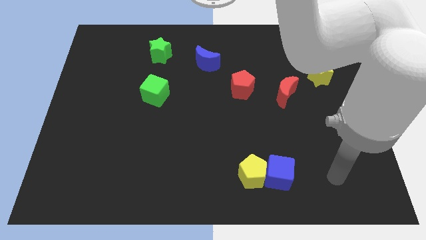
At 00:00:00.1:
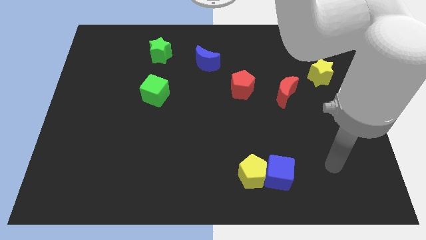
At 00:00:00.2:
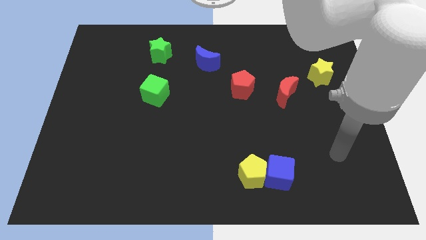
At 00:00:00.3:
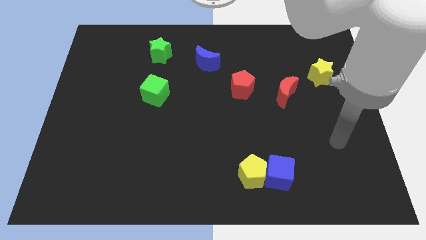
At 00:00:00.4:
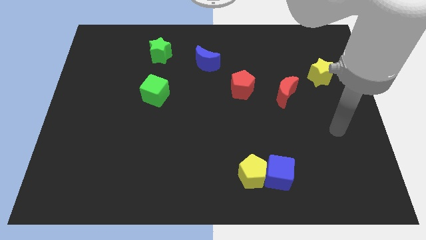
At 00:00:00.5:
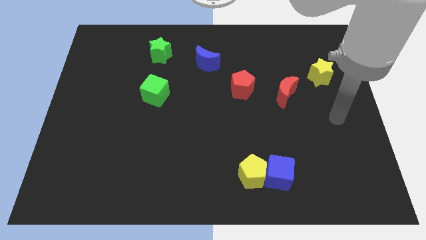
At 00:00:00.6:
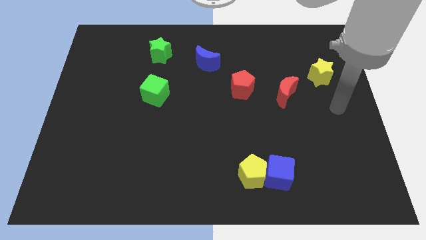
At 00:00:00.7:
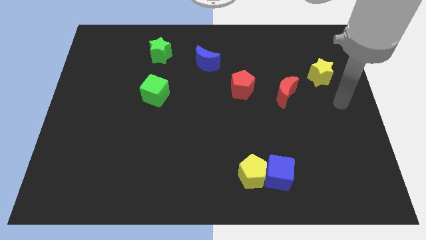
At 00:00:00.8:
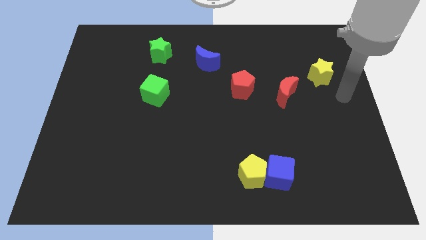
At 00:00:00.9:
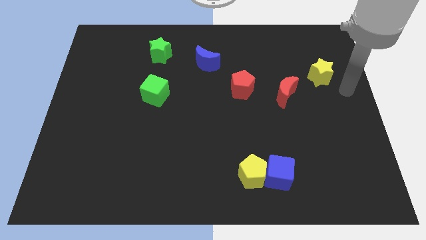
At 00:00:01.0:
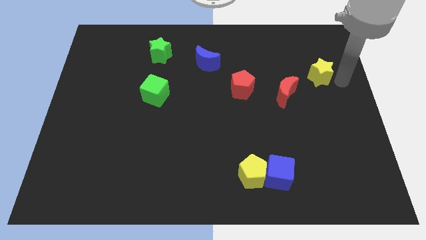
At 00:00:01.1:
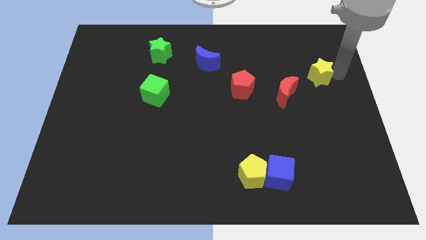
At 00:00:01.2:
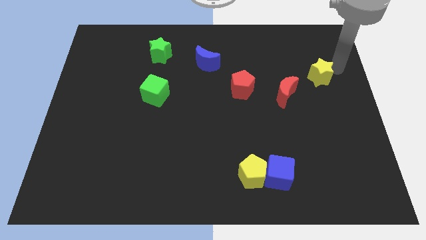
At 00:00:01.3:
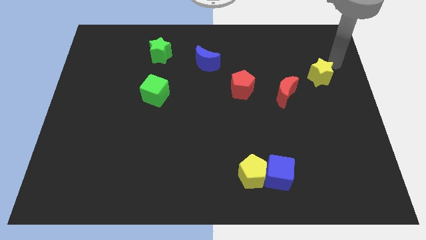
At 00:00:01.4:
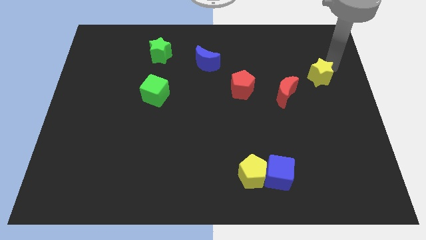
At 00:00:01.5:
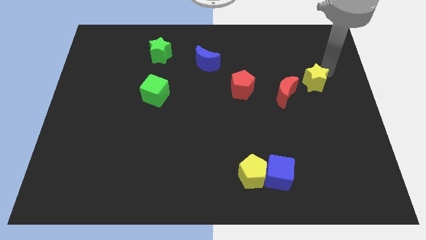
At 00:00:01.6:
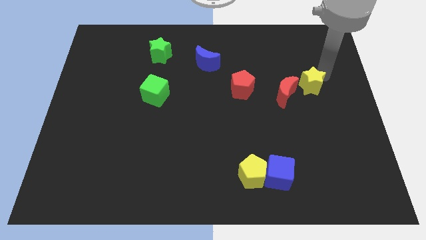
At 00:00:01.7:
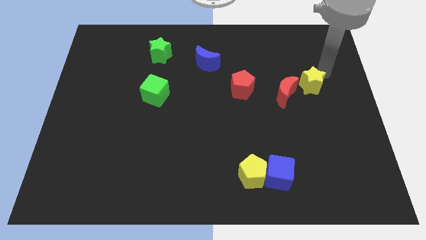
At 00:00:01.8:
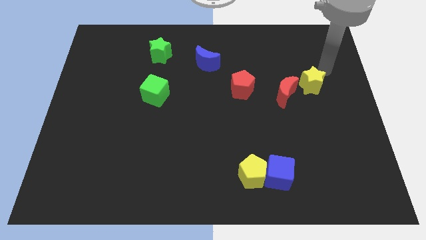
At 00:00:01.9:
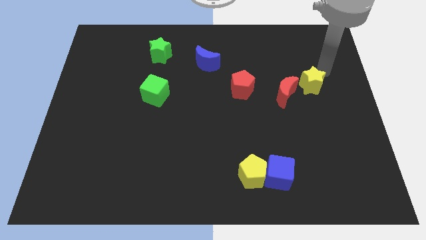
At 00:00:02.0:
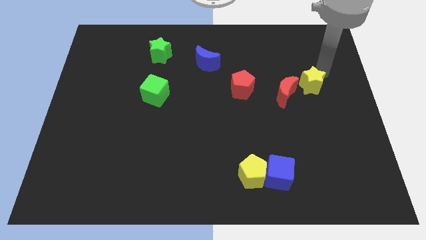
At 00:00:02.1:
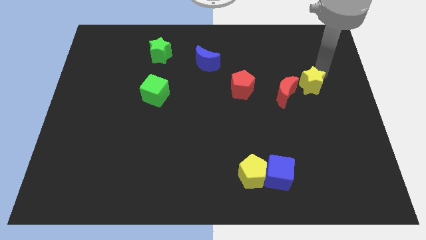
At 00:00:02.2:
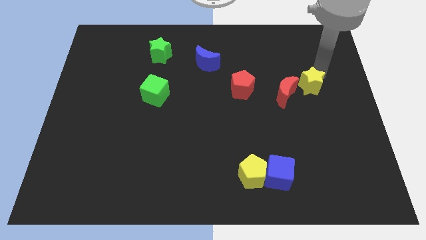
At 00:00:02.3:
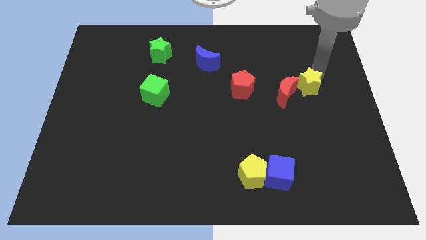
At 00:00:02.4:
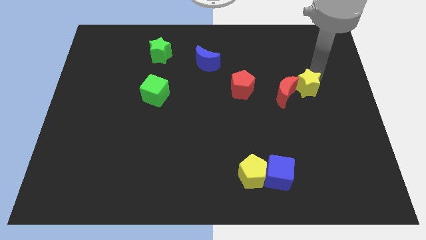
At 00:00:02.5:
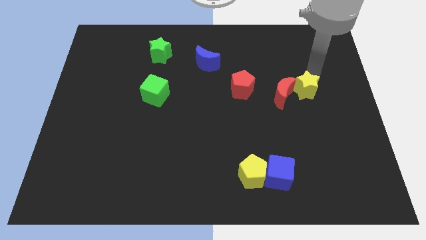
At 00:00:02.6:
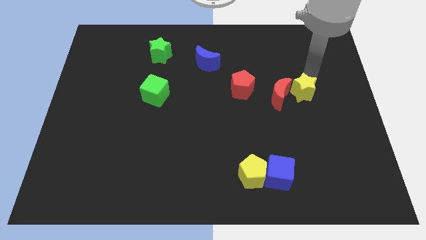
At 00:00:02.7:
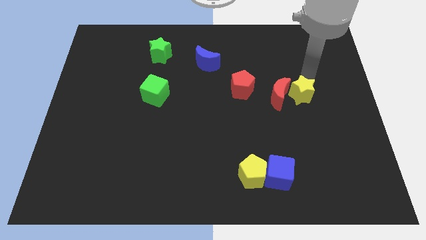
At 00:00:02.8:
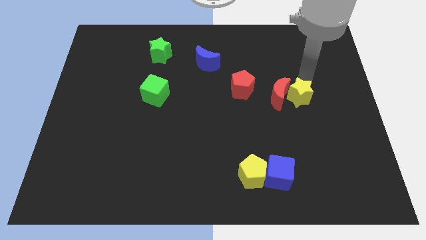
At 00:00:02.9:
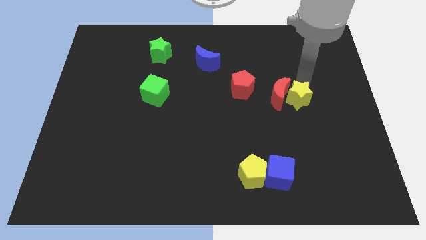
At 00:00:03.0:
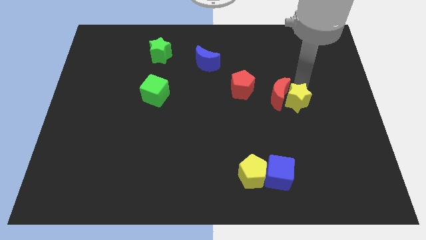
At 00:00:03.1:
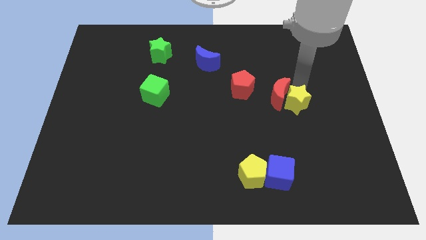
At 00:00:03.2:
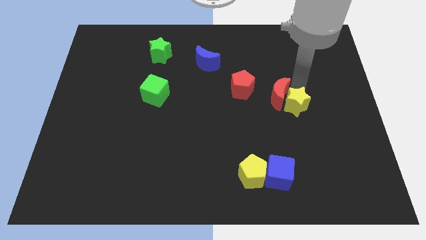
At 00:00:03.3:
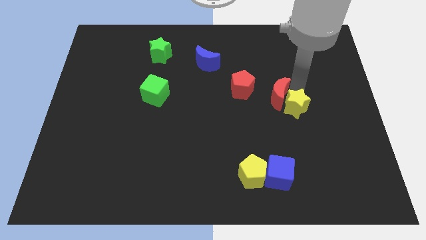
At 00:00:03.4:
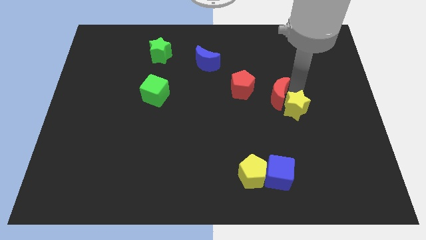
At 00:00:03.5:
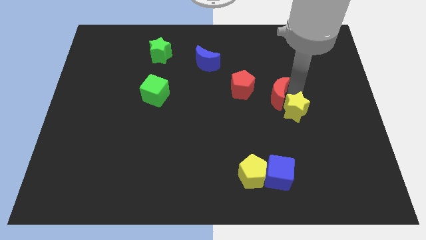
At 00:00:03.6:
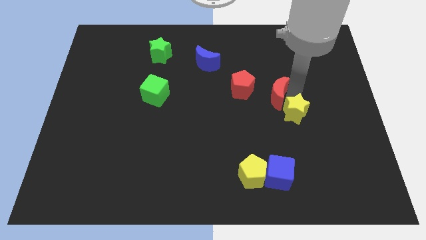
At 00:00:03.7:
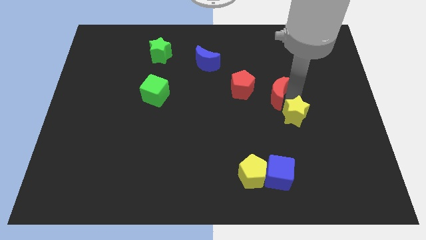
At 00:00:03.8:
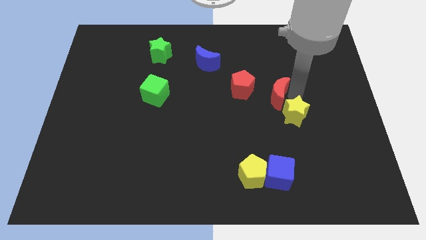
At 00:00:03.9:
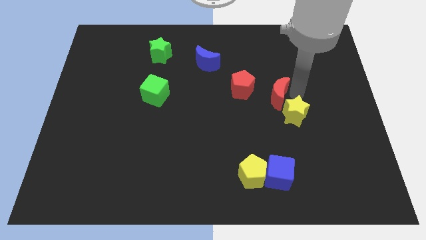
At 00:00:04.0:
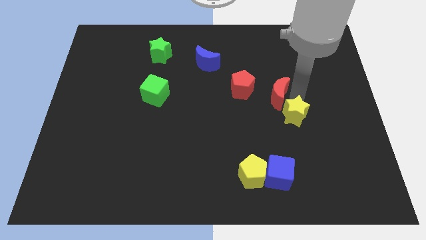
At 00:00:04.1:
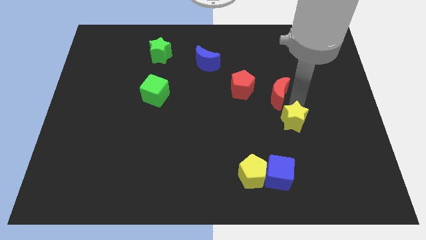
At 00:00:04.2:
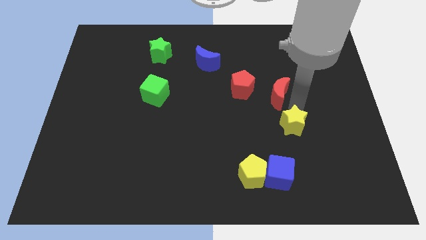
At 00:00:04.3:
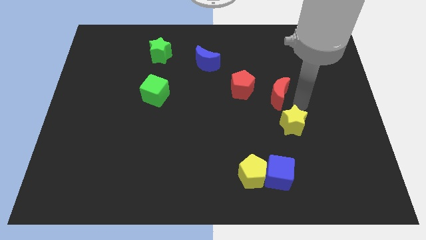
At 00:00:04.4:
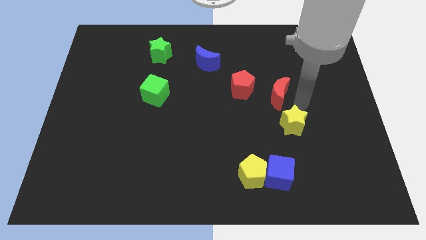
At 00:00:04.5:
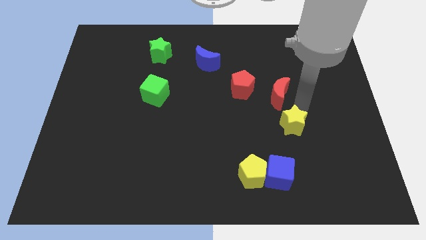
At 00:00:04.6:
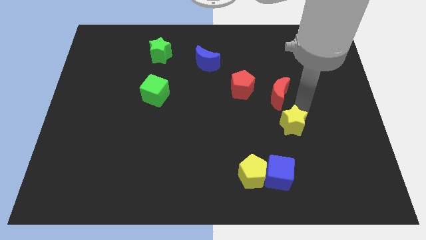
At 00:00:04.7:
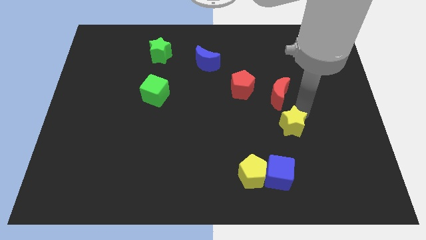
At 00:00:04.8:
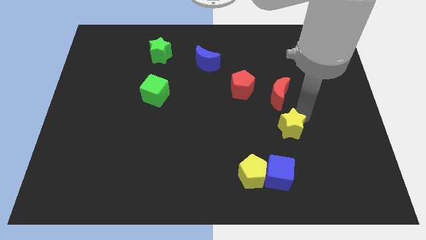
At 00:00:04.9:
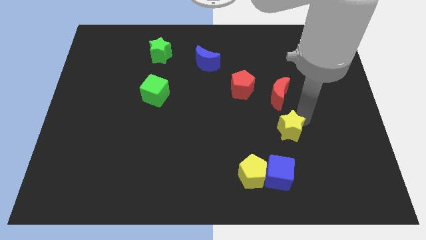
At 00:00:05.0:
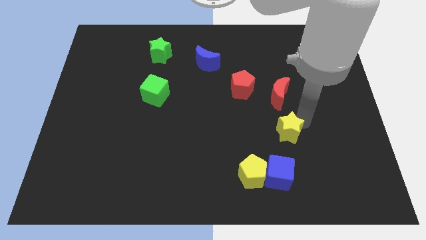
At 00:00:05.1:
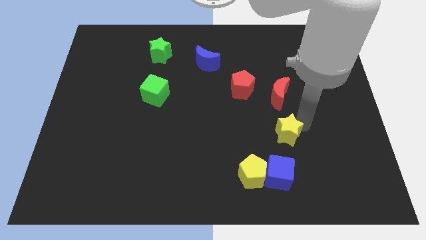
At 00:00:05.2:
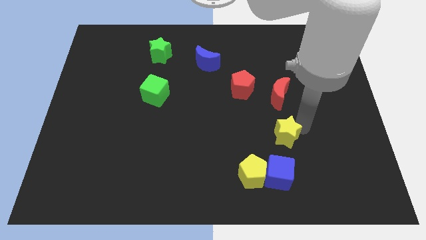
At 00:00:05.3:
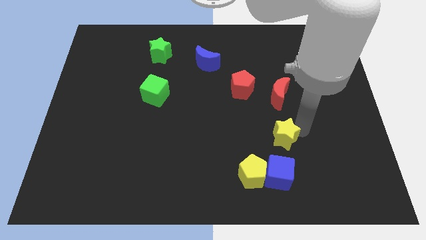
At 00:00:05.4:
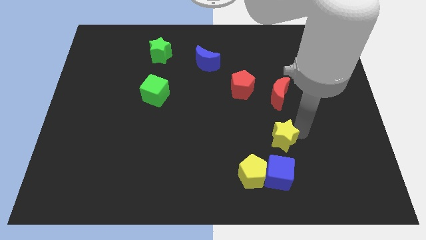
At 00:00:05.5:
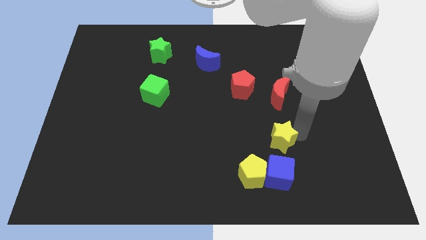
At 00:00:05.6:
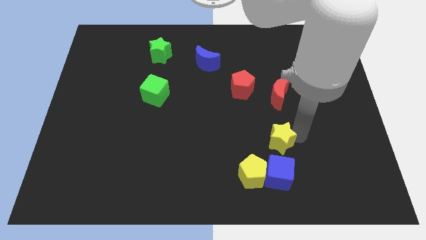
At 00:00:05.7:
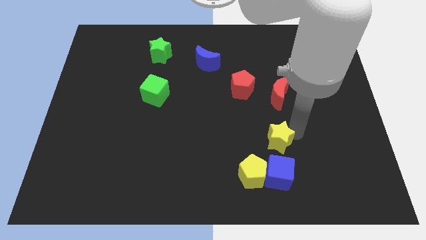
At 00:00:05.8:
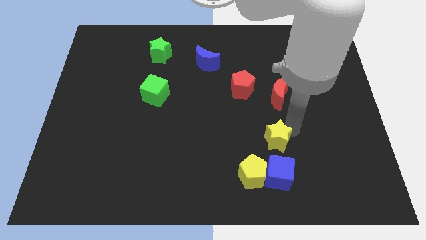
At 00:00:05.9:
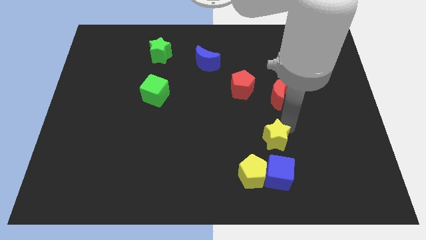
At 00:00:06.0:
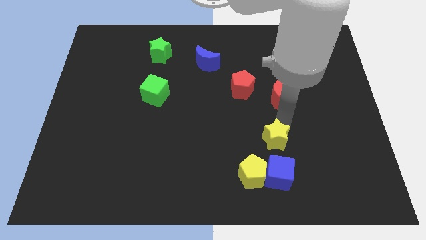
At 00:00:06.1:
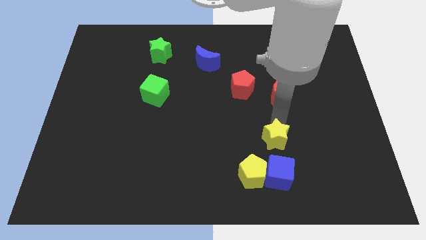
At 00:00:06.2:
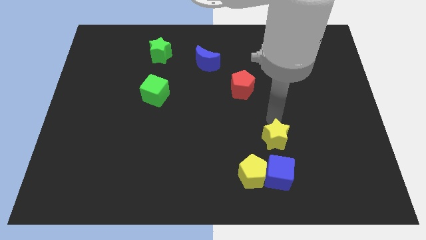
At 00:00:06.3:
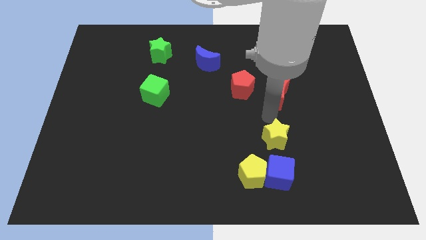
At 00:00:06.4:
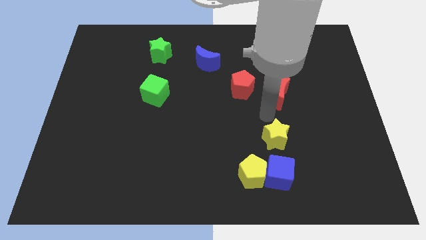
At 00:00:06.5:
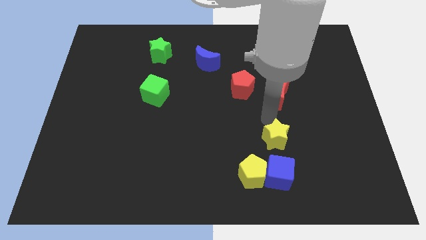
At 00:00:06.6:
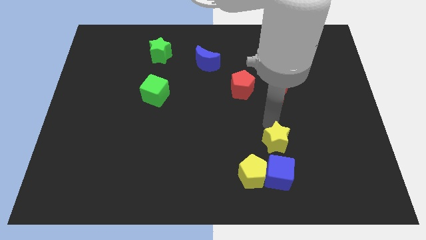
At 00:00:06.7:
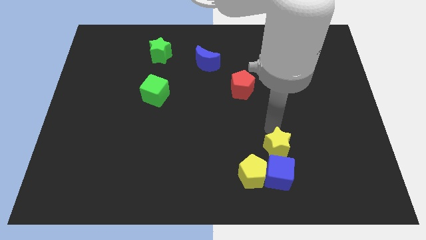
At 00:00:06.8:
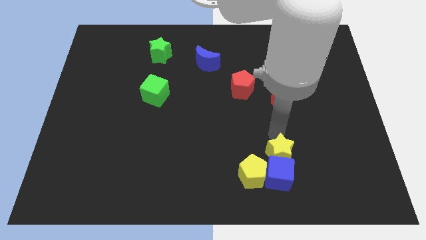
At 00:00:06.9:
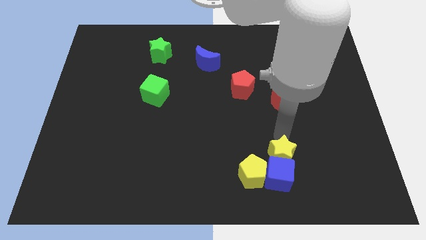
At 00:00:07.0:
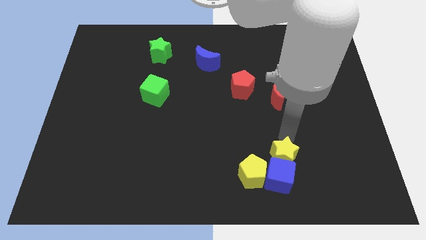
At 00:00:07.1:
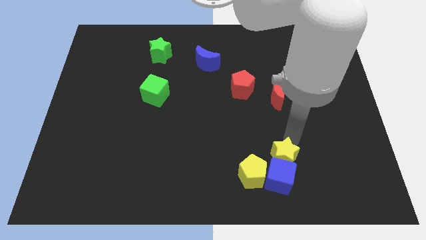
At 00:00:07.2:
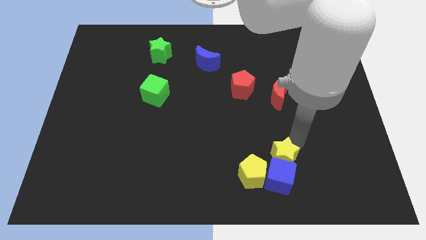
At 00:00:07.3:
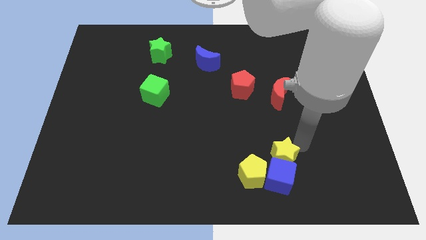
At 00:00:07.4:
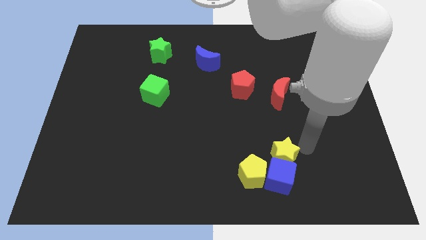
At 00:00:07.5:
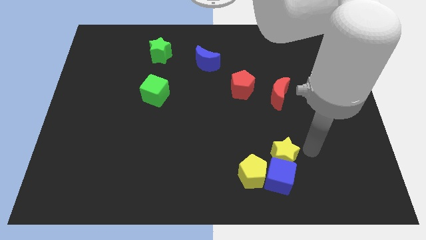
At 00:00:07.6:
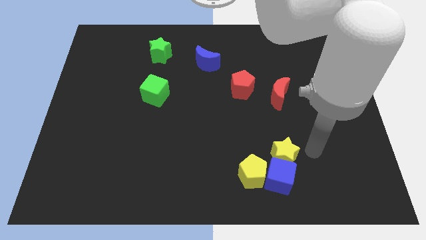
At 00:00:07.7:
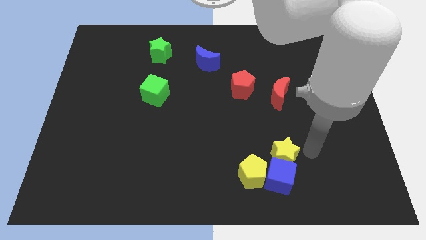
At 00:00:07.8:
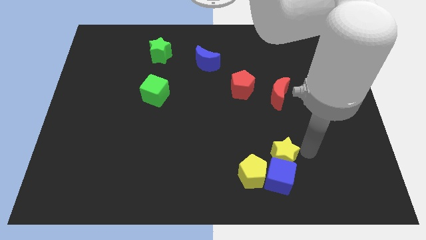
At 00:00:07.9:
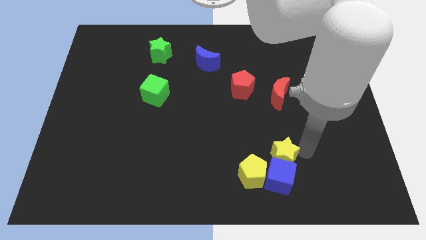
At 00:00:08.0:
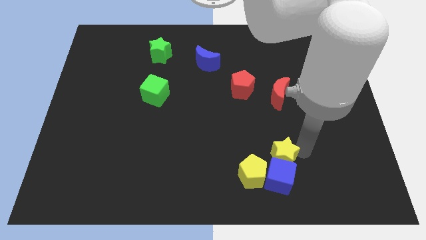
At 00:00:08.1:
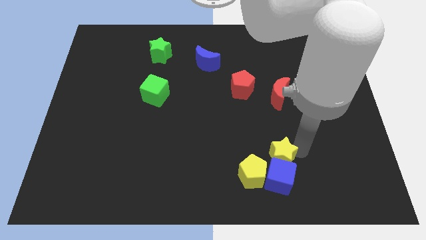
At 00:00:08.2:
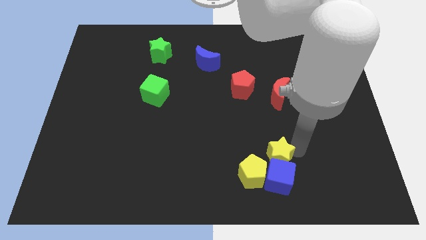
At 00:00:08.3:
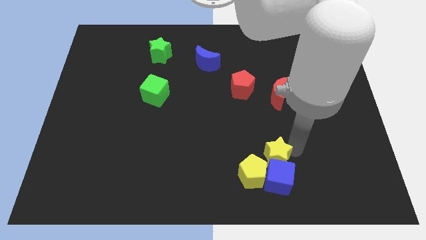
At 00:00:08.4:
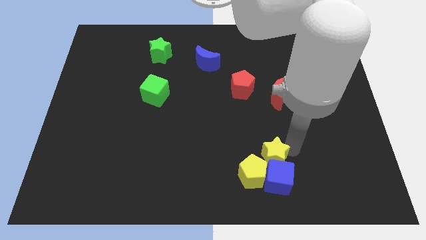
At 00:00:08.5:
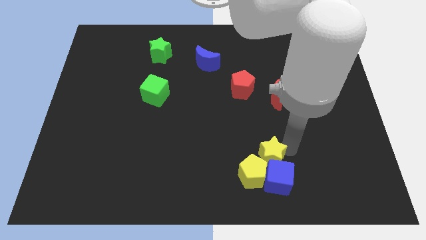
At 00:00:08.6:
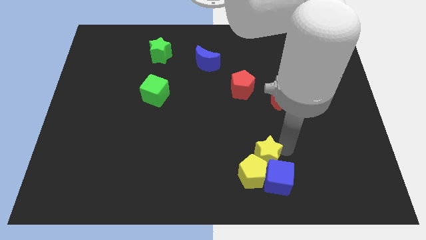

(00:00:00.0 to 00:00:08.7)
put the yellow star close to the yellow pentagon
